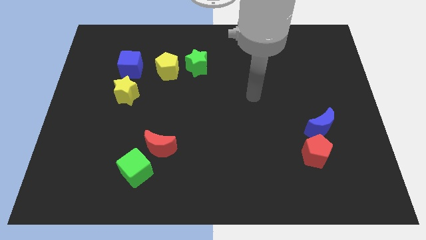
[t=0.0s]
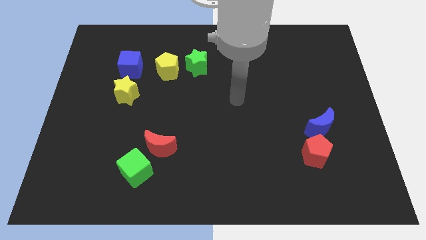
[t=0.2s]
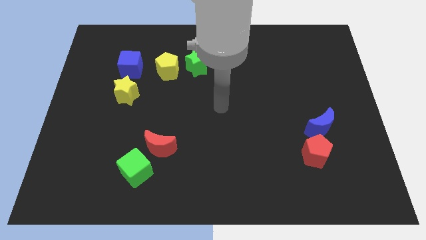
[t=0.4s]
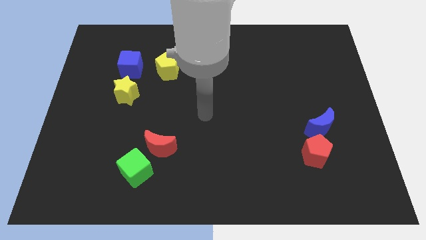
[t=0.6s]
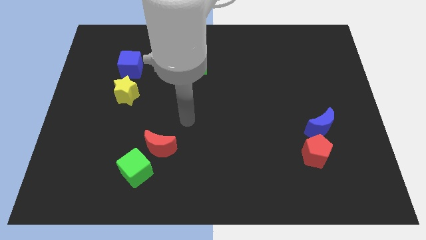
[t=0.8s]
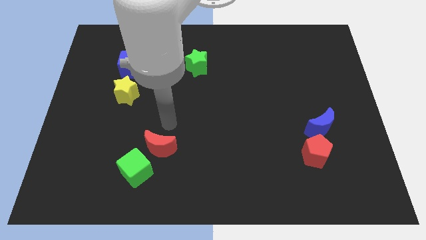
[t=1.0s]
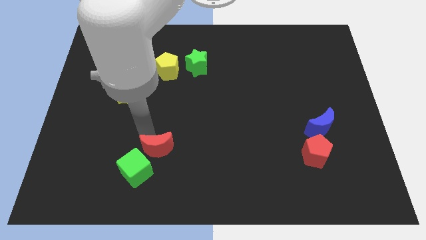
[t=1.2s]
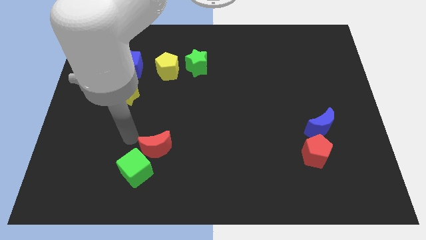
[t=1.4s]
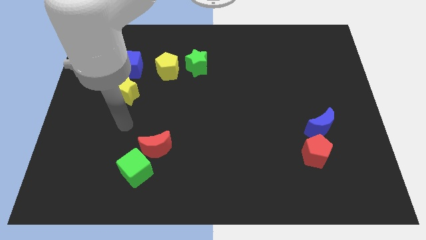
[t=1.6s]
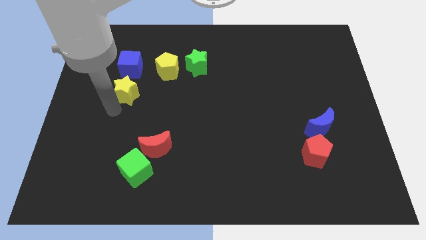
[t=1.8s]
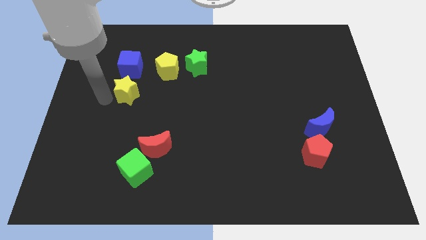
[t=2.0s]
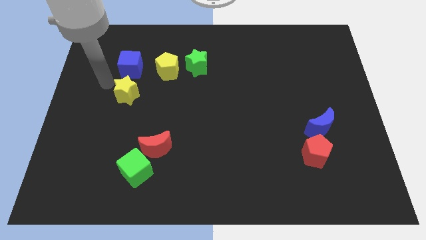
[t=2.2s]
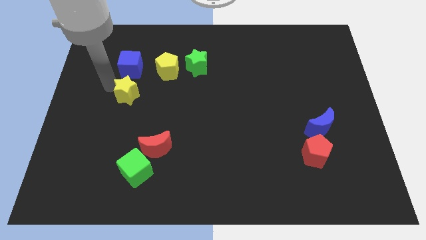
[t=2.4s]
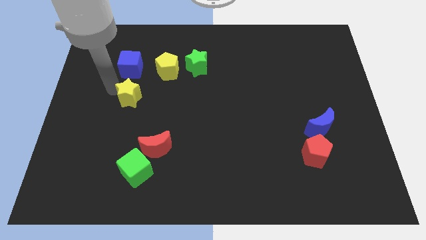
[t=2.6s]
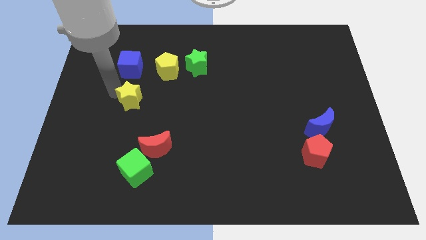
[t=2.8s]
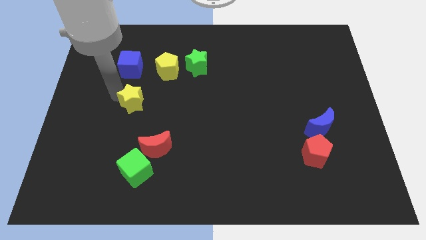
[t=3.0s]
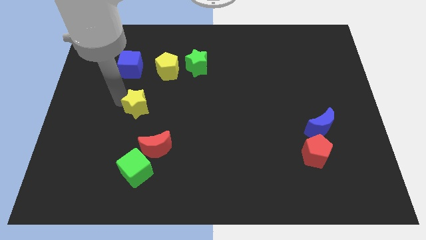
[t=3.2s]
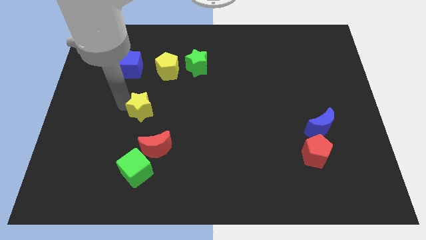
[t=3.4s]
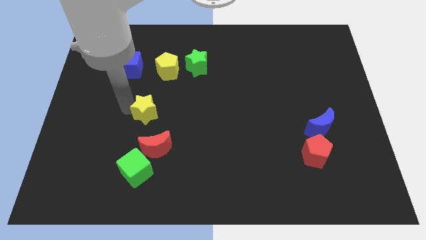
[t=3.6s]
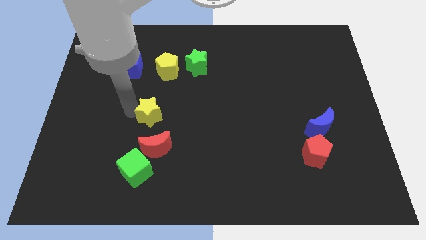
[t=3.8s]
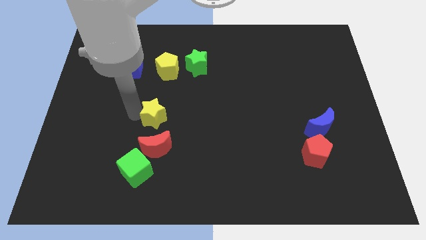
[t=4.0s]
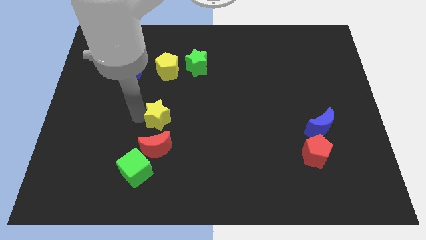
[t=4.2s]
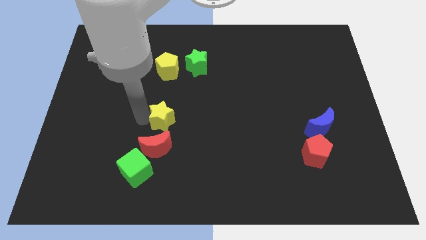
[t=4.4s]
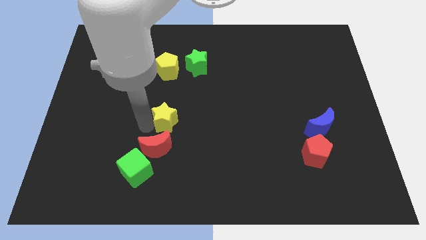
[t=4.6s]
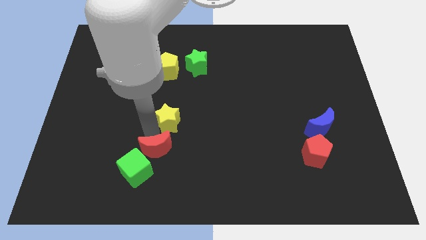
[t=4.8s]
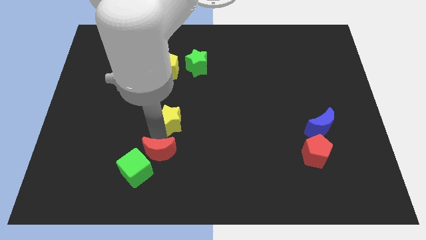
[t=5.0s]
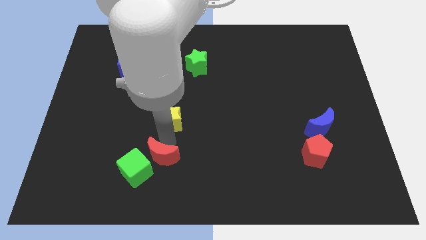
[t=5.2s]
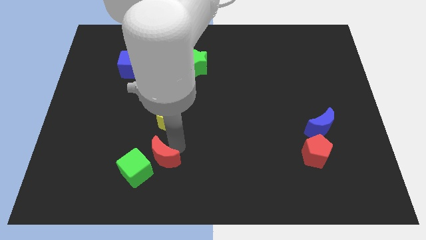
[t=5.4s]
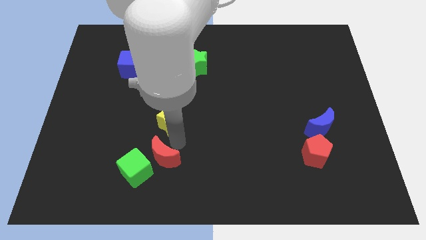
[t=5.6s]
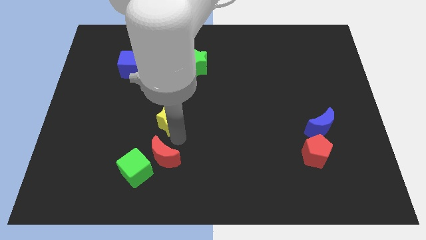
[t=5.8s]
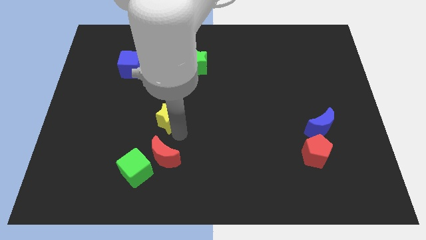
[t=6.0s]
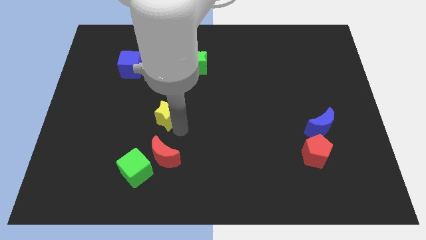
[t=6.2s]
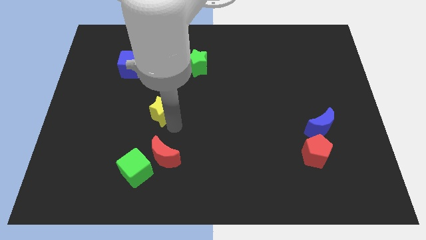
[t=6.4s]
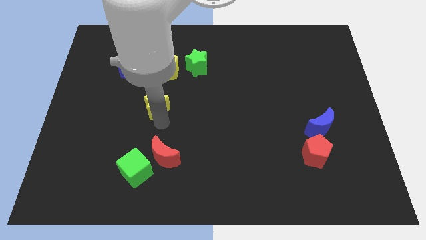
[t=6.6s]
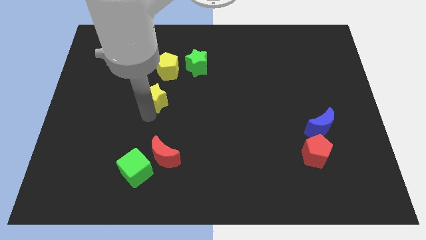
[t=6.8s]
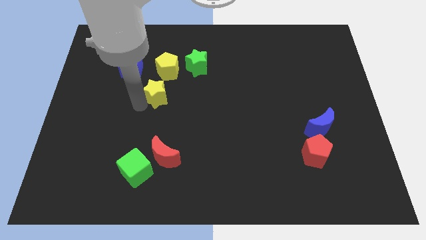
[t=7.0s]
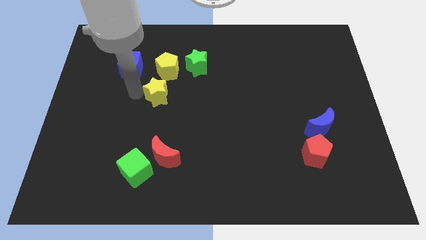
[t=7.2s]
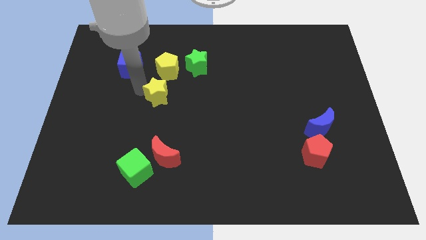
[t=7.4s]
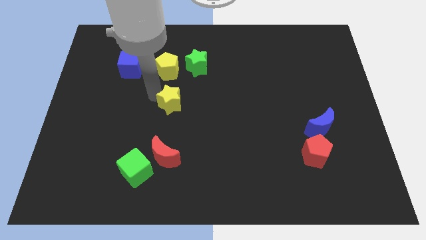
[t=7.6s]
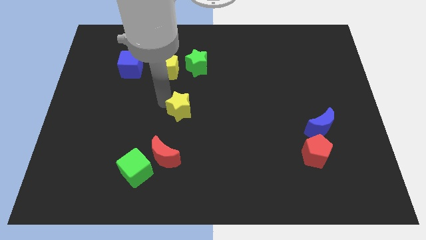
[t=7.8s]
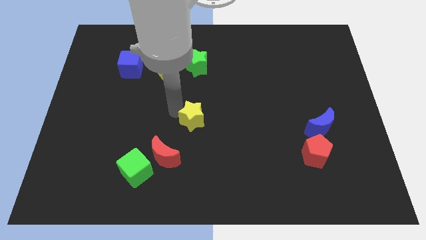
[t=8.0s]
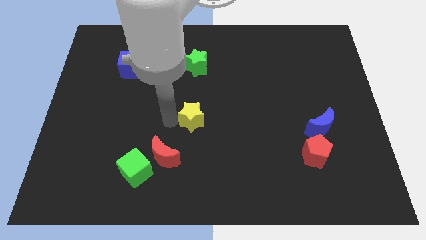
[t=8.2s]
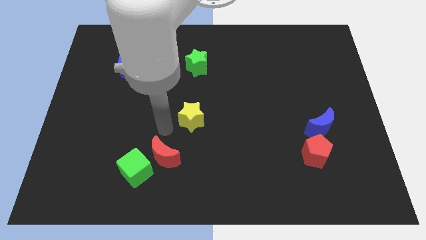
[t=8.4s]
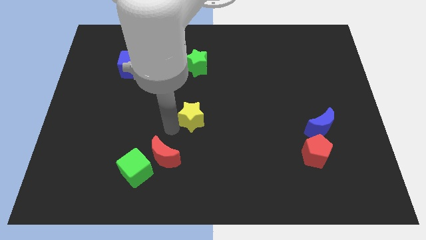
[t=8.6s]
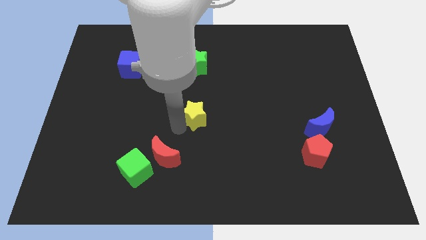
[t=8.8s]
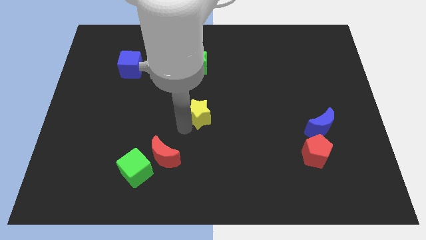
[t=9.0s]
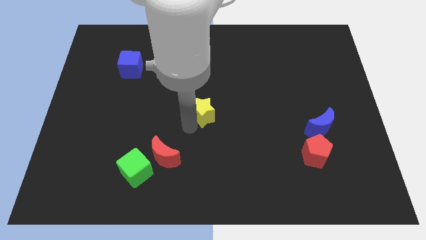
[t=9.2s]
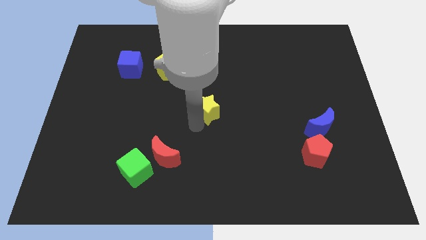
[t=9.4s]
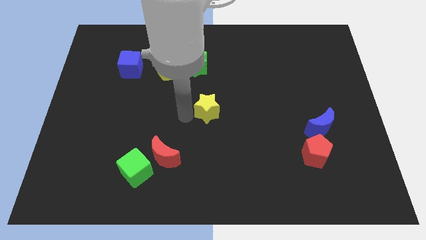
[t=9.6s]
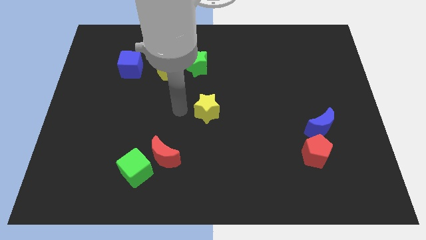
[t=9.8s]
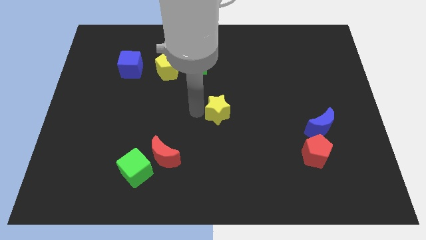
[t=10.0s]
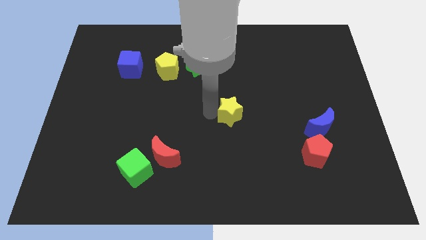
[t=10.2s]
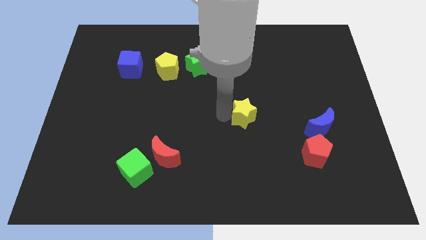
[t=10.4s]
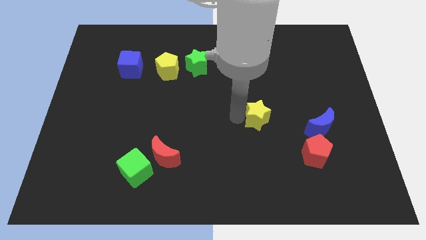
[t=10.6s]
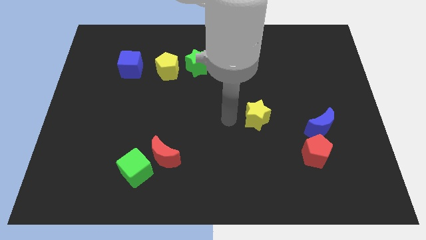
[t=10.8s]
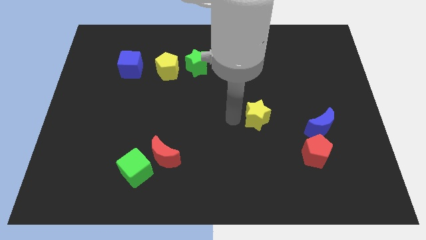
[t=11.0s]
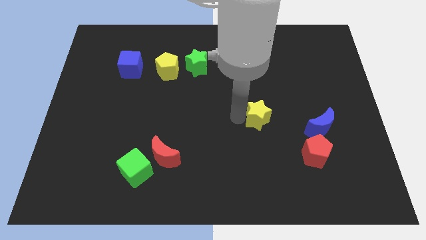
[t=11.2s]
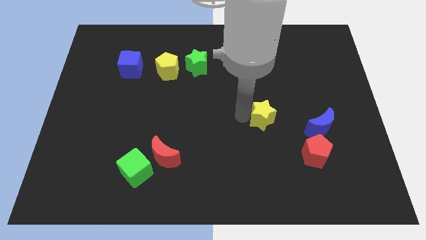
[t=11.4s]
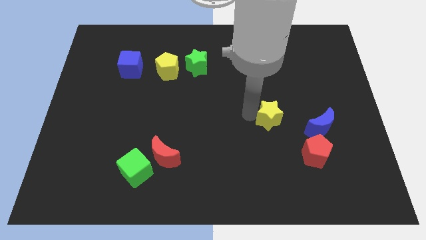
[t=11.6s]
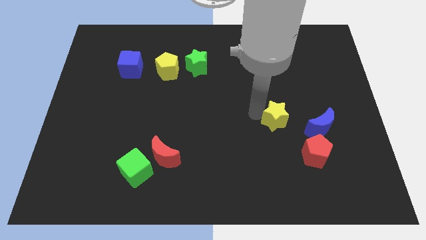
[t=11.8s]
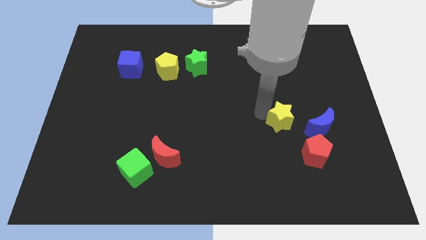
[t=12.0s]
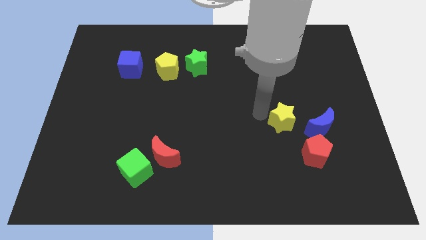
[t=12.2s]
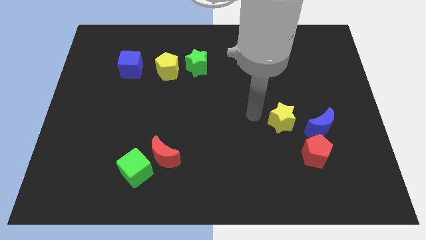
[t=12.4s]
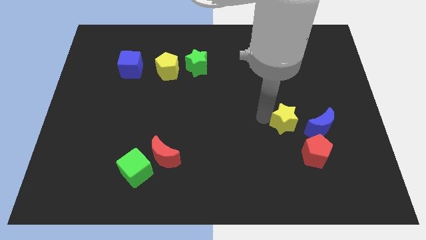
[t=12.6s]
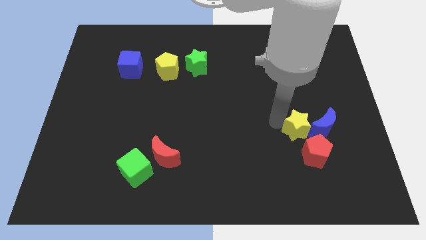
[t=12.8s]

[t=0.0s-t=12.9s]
push the yellow star towards the blue moon

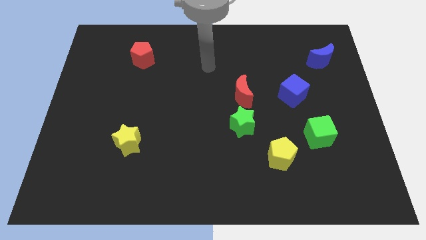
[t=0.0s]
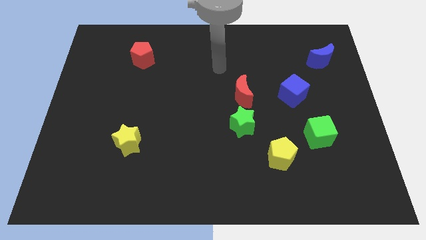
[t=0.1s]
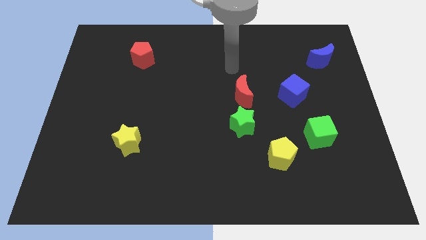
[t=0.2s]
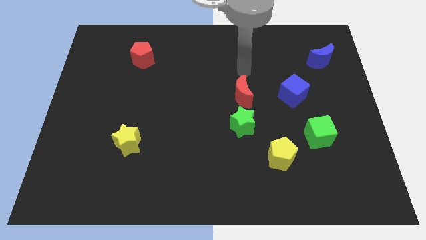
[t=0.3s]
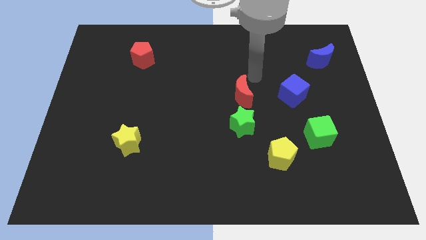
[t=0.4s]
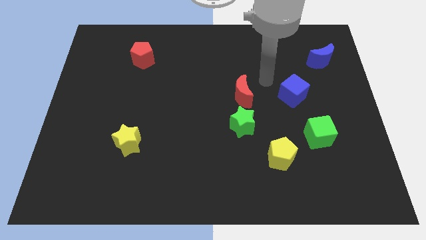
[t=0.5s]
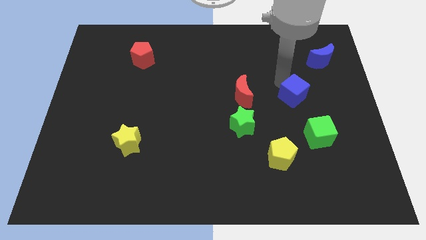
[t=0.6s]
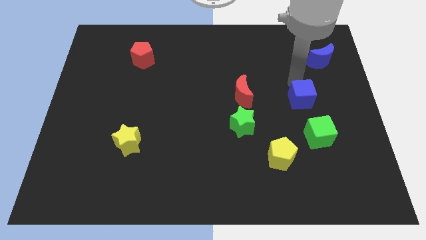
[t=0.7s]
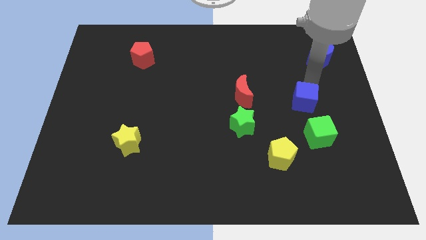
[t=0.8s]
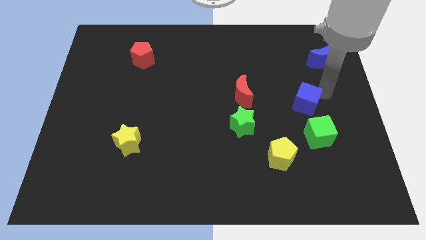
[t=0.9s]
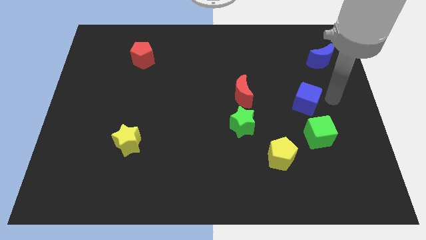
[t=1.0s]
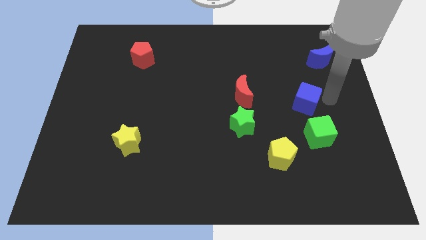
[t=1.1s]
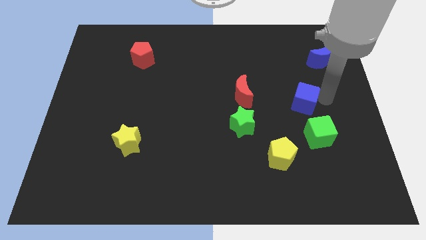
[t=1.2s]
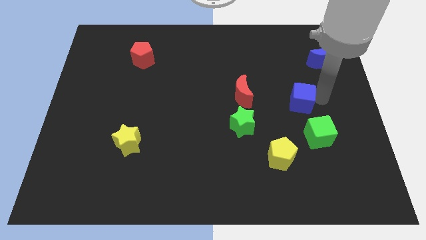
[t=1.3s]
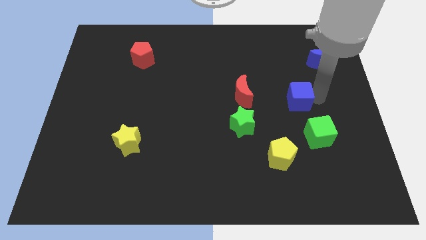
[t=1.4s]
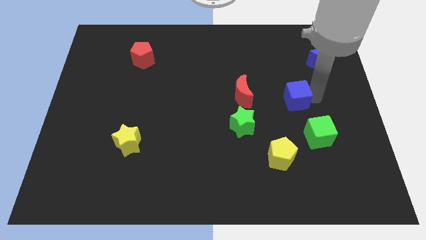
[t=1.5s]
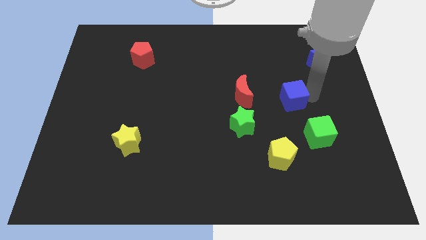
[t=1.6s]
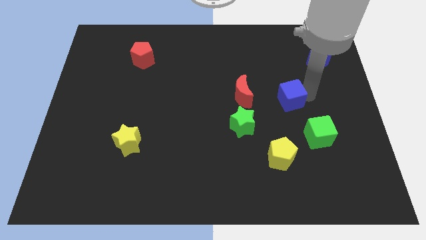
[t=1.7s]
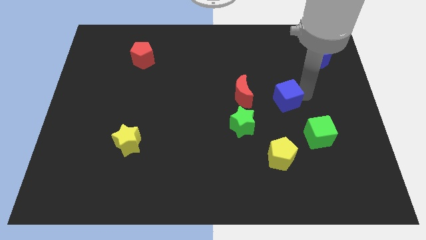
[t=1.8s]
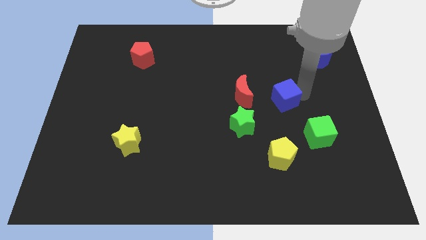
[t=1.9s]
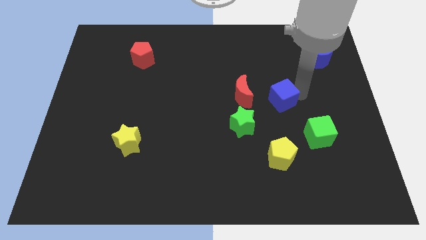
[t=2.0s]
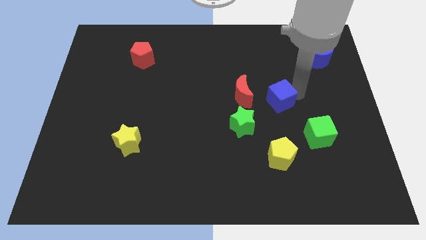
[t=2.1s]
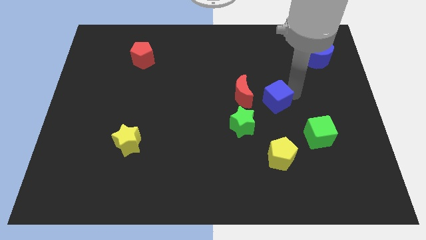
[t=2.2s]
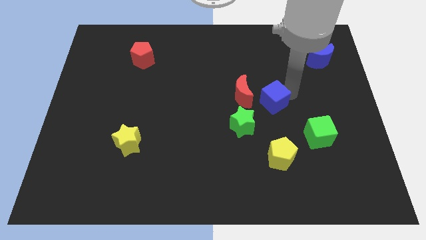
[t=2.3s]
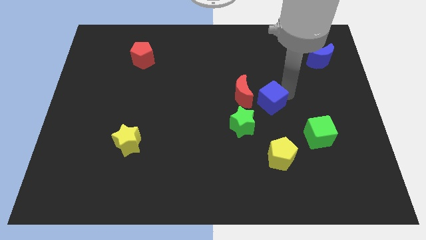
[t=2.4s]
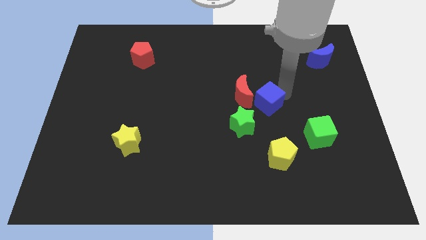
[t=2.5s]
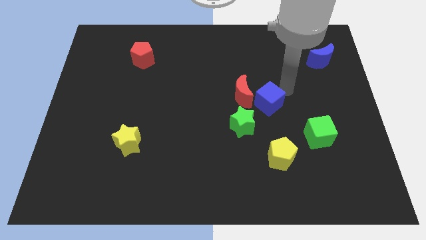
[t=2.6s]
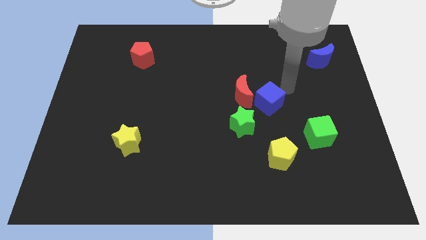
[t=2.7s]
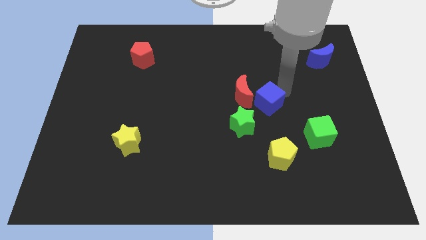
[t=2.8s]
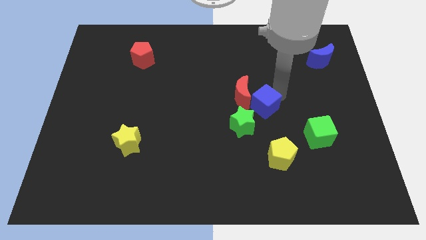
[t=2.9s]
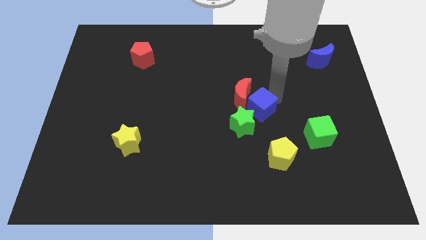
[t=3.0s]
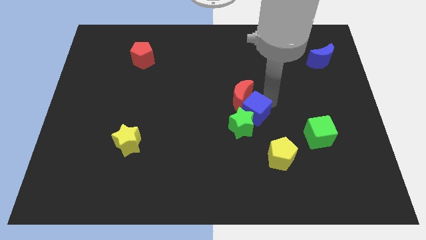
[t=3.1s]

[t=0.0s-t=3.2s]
put the blue cube towards the green star
